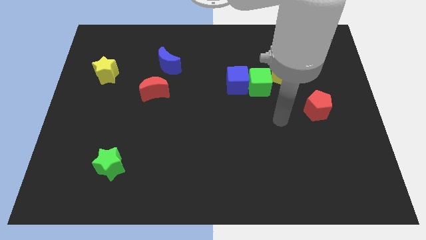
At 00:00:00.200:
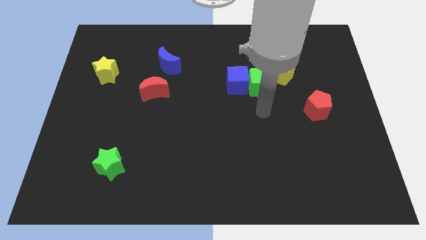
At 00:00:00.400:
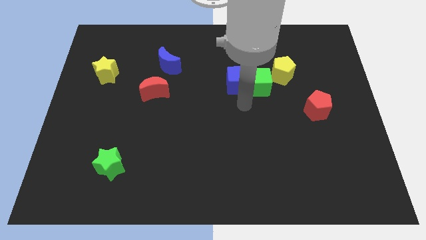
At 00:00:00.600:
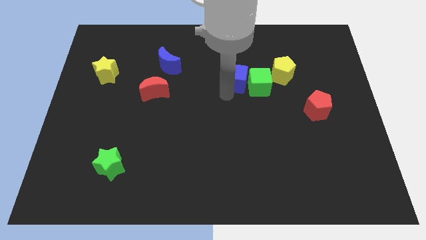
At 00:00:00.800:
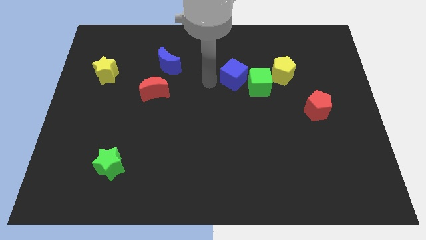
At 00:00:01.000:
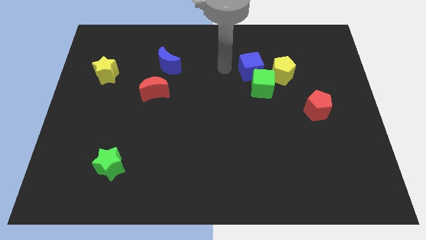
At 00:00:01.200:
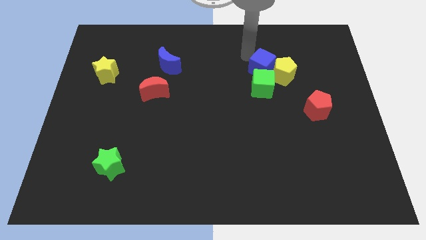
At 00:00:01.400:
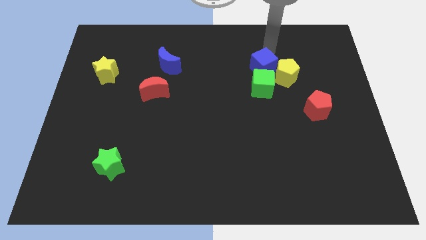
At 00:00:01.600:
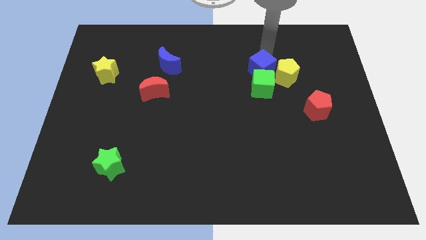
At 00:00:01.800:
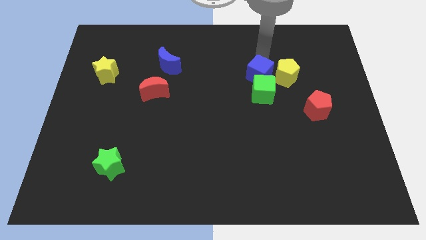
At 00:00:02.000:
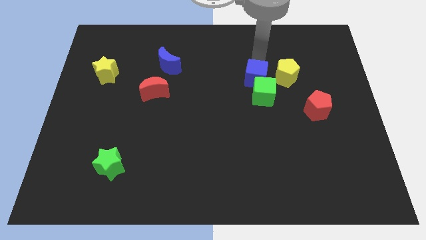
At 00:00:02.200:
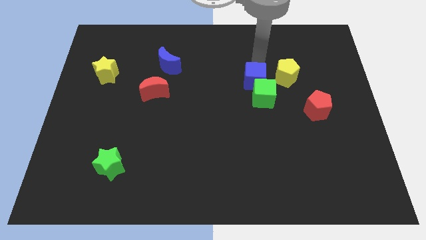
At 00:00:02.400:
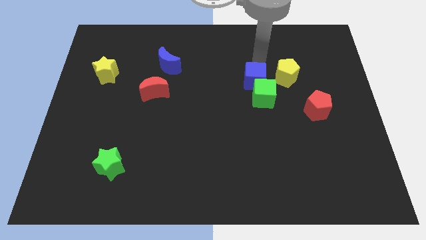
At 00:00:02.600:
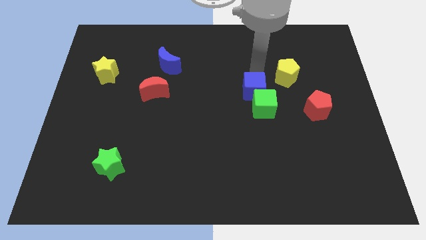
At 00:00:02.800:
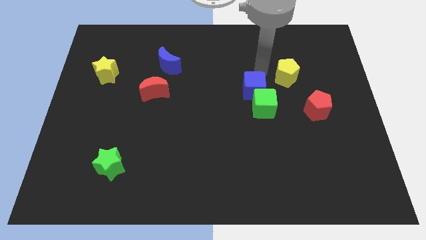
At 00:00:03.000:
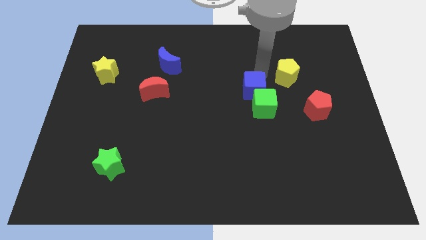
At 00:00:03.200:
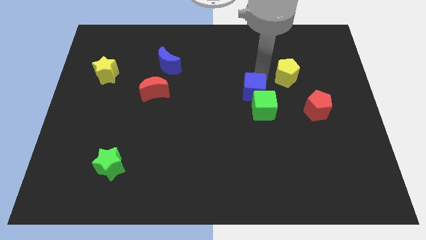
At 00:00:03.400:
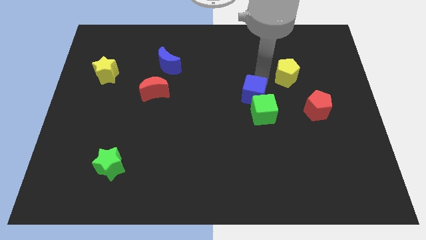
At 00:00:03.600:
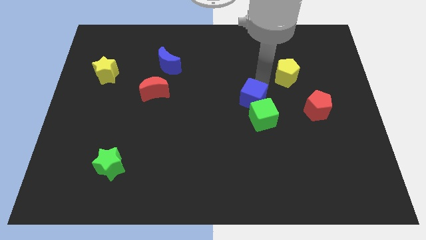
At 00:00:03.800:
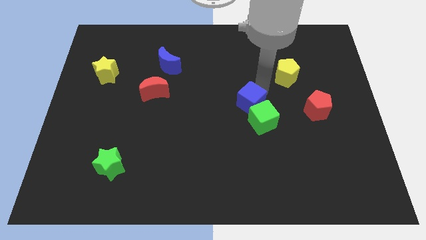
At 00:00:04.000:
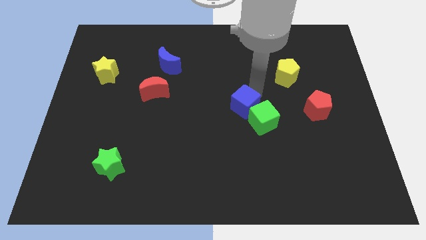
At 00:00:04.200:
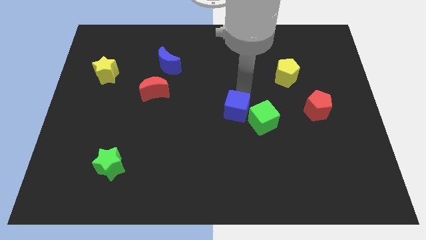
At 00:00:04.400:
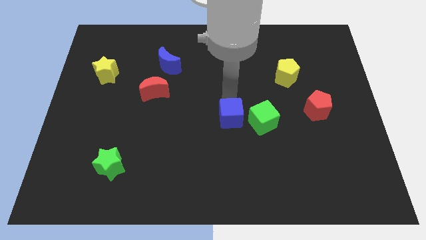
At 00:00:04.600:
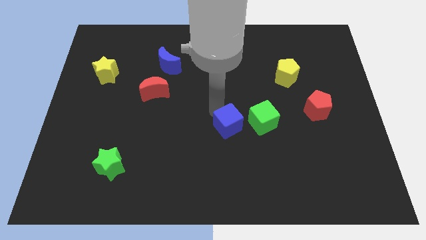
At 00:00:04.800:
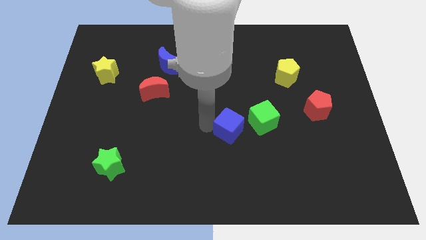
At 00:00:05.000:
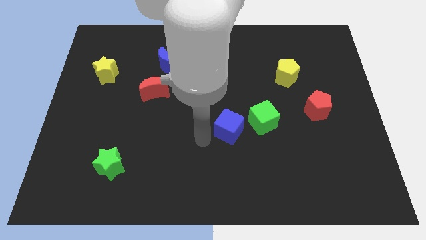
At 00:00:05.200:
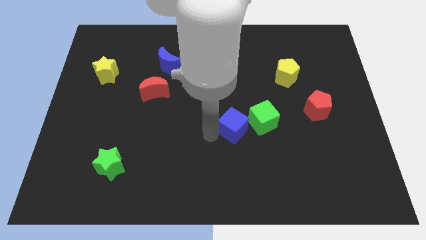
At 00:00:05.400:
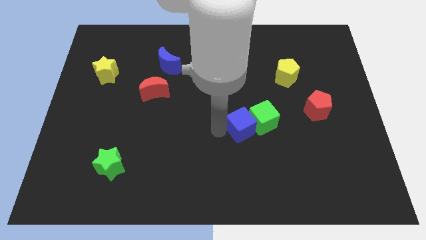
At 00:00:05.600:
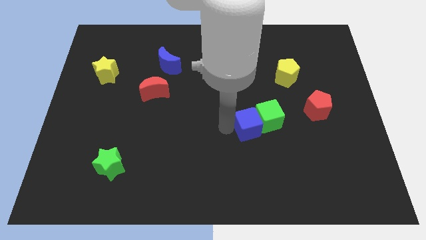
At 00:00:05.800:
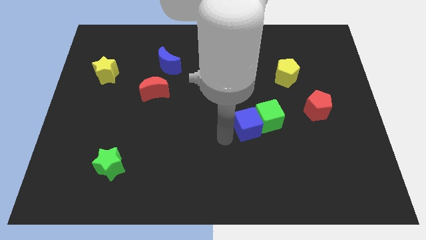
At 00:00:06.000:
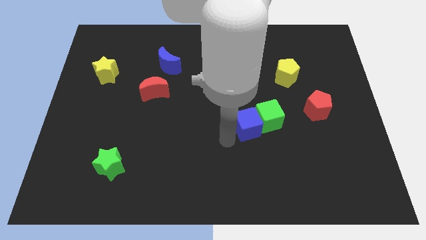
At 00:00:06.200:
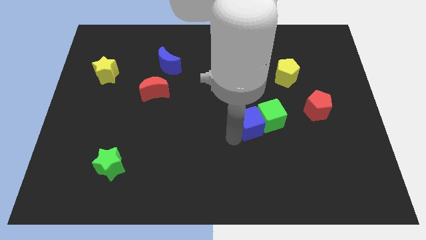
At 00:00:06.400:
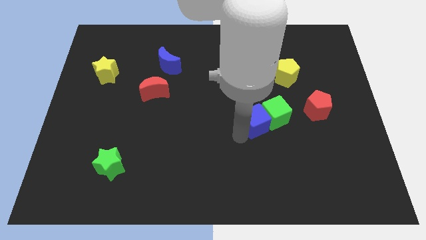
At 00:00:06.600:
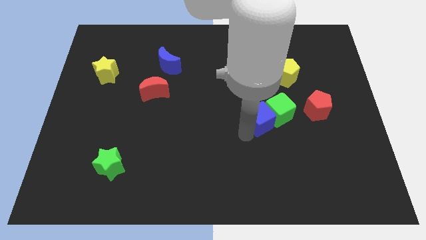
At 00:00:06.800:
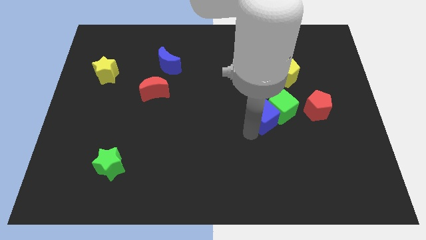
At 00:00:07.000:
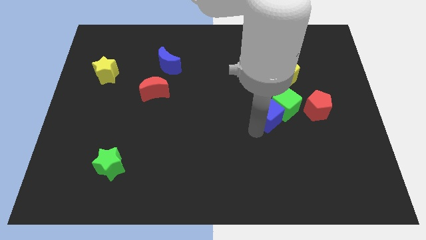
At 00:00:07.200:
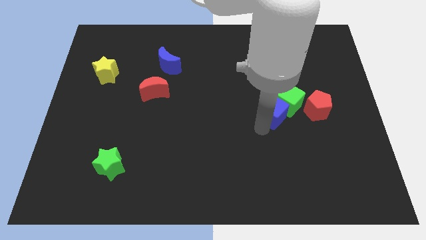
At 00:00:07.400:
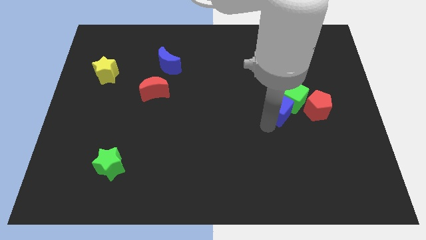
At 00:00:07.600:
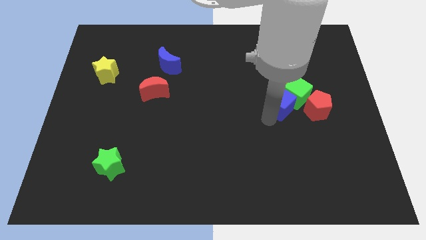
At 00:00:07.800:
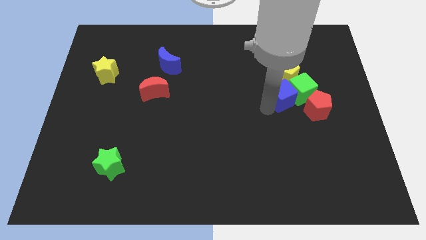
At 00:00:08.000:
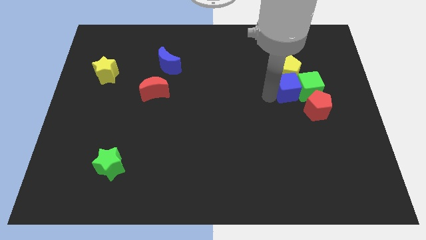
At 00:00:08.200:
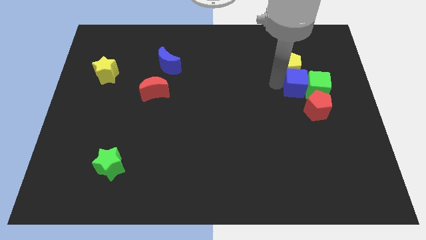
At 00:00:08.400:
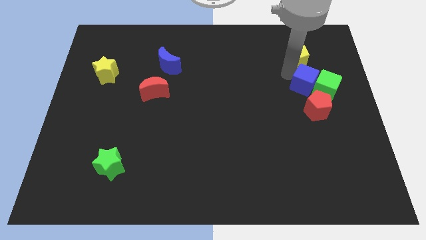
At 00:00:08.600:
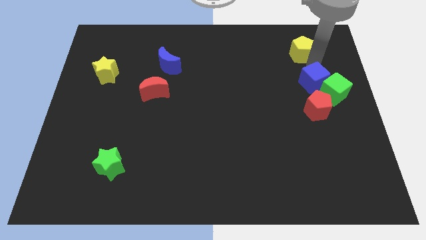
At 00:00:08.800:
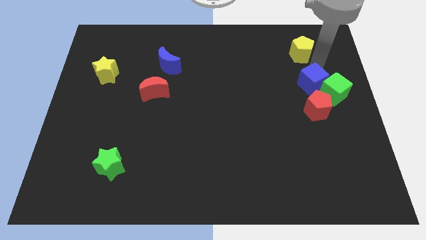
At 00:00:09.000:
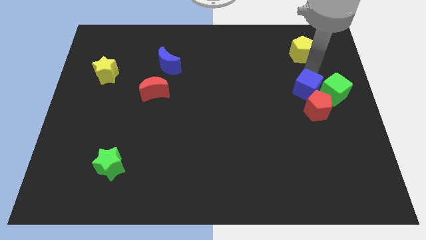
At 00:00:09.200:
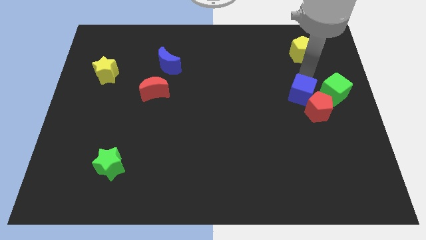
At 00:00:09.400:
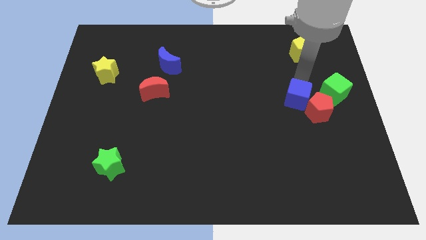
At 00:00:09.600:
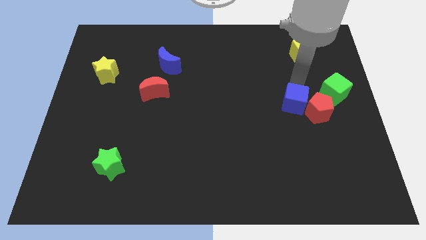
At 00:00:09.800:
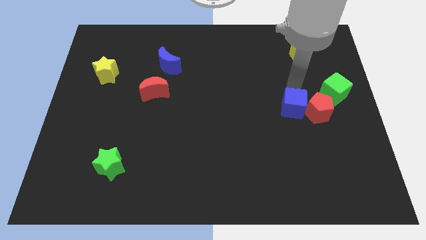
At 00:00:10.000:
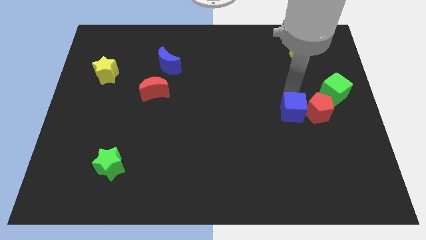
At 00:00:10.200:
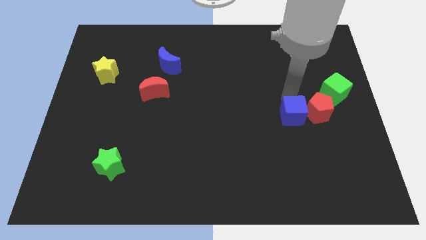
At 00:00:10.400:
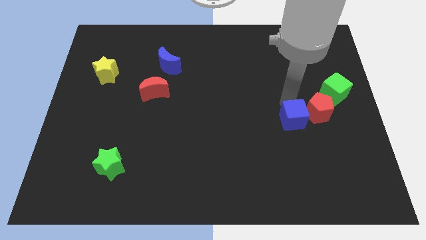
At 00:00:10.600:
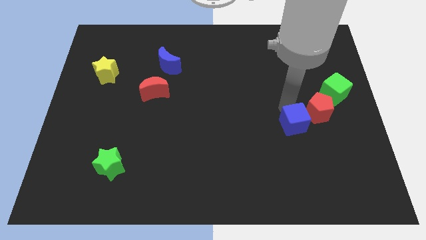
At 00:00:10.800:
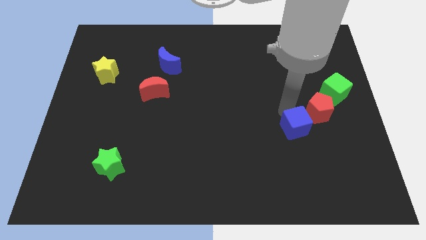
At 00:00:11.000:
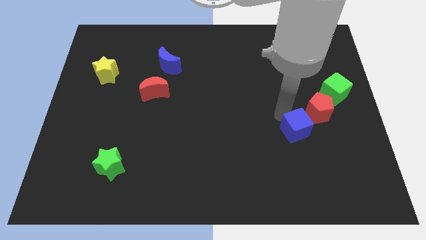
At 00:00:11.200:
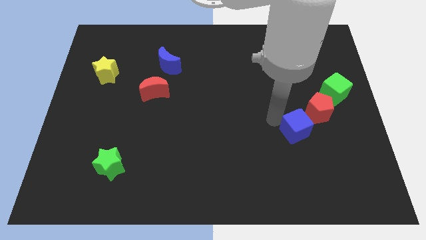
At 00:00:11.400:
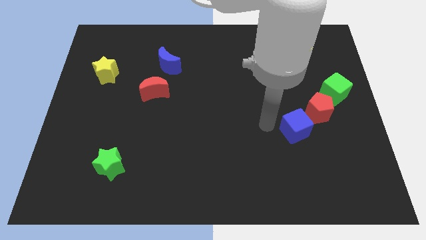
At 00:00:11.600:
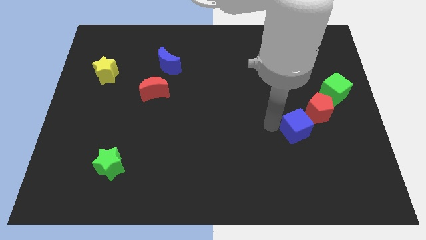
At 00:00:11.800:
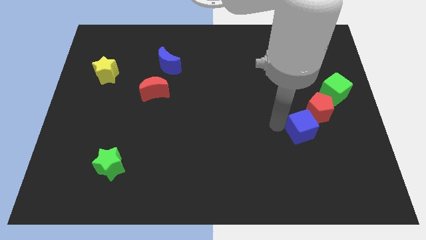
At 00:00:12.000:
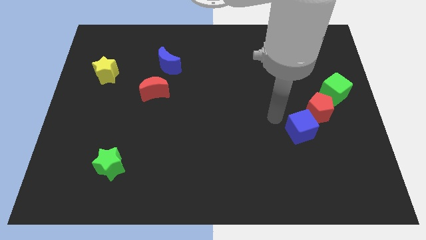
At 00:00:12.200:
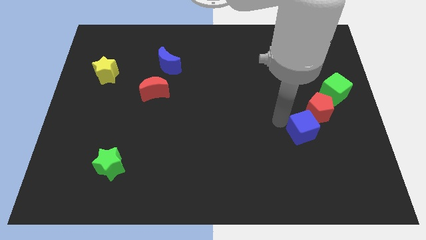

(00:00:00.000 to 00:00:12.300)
move the blue cube downwards and then to the right

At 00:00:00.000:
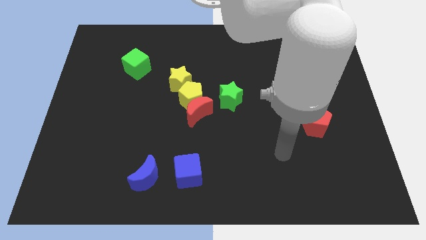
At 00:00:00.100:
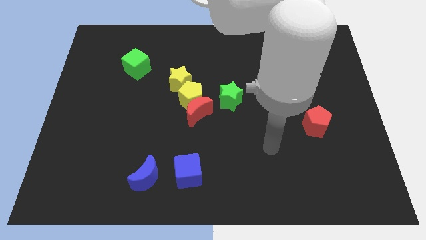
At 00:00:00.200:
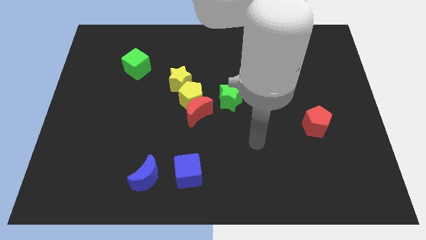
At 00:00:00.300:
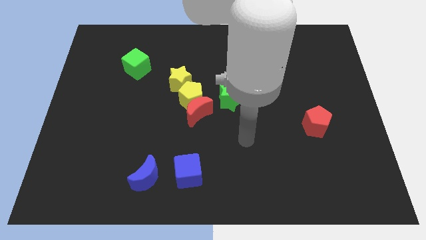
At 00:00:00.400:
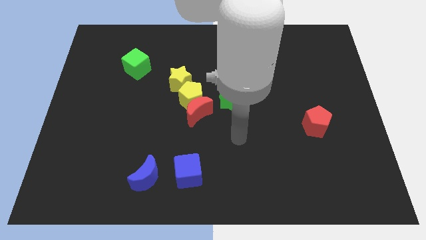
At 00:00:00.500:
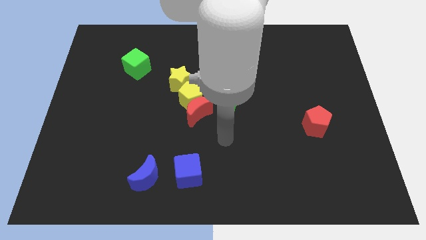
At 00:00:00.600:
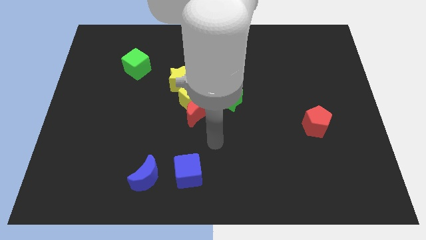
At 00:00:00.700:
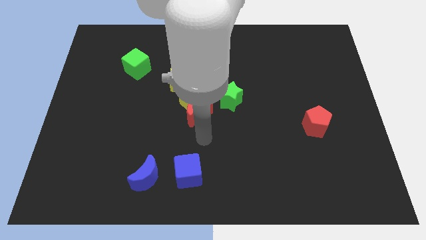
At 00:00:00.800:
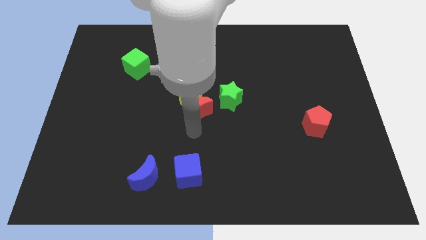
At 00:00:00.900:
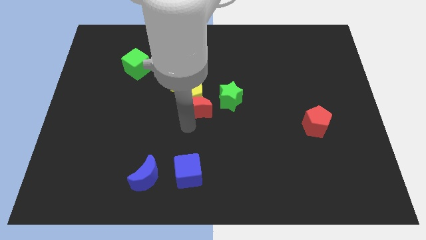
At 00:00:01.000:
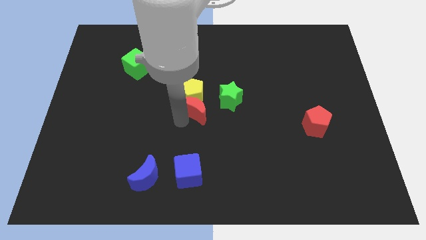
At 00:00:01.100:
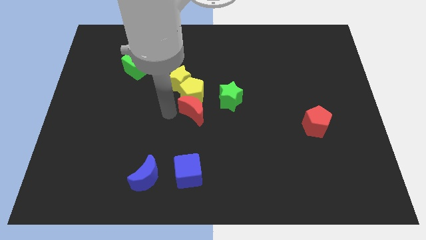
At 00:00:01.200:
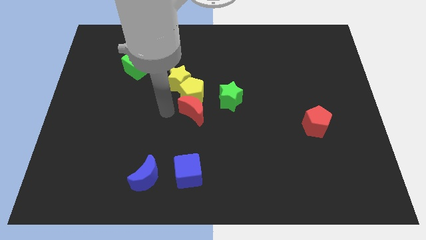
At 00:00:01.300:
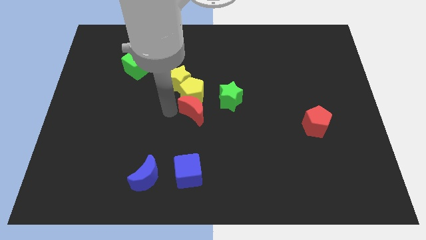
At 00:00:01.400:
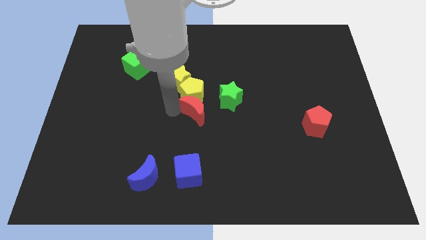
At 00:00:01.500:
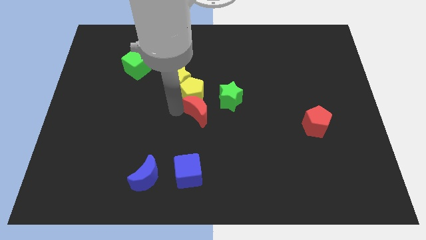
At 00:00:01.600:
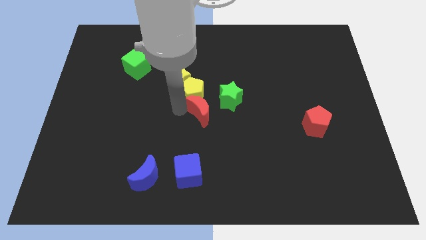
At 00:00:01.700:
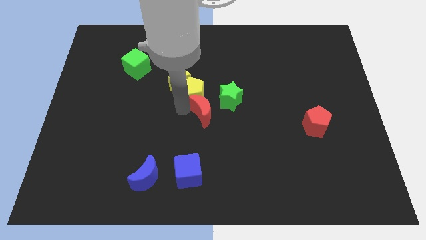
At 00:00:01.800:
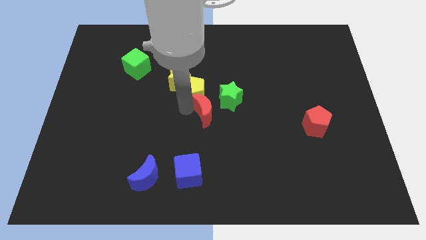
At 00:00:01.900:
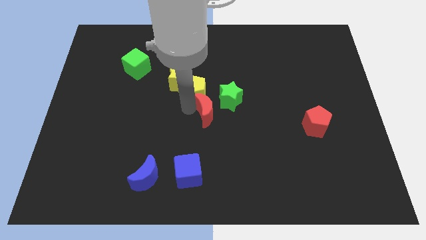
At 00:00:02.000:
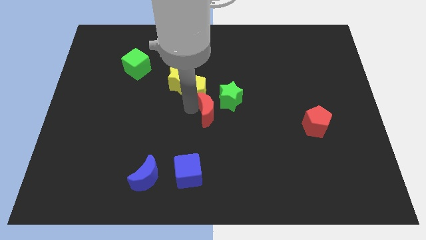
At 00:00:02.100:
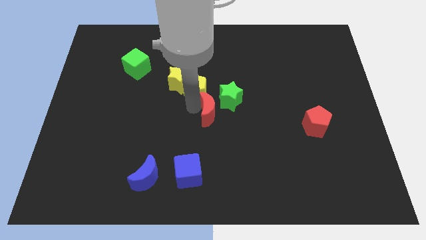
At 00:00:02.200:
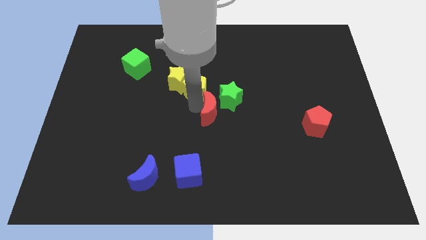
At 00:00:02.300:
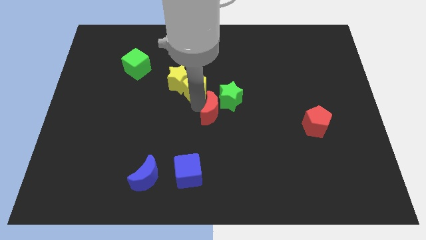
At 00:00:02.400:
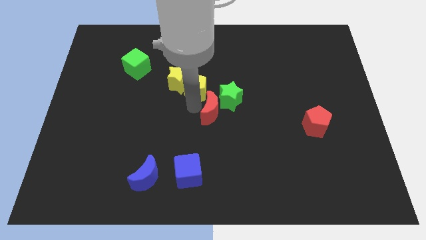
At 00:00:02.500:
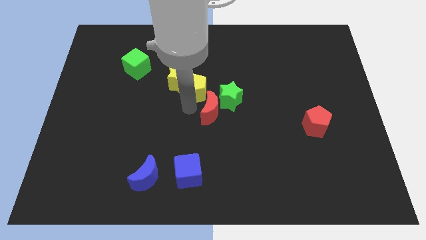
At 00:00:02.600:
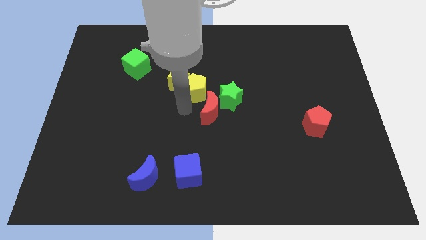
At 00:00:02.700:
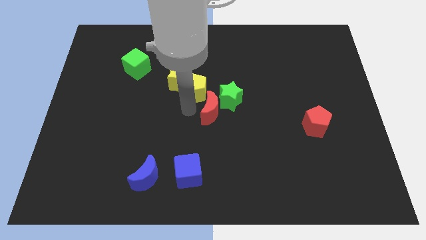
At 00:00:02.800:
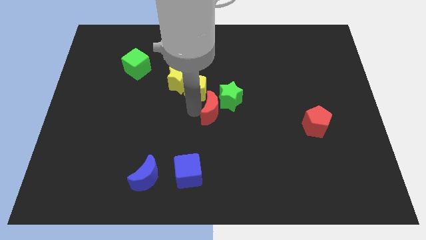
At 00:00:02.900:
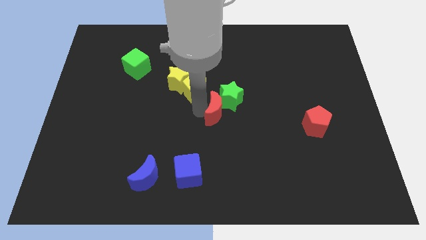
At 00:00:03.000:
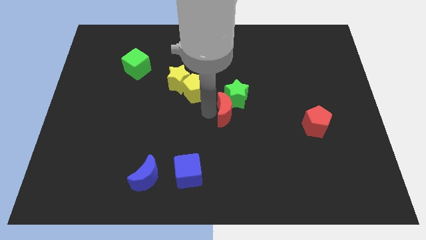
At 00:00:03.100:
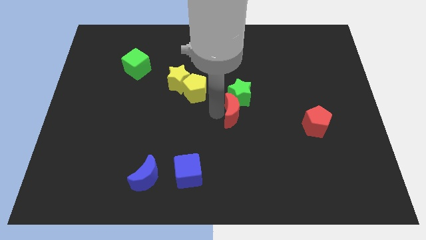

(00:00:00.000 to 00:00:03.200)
slide the red moon somewhat right
